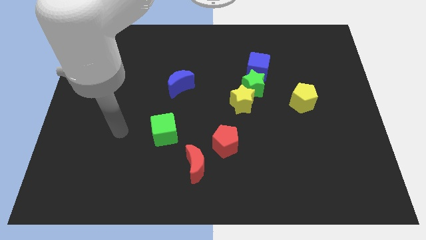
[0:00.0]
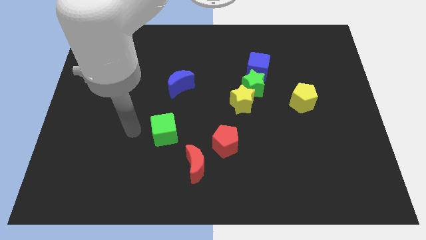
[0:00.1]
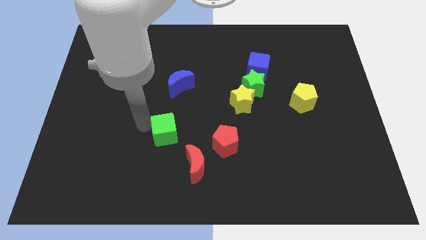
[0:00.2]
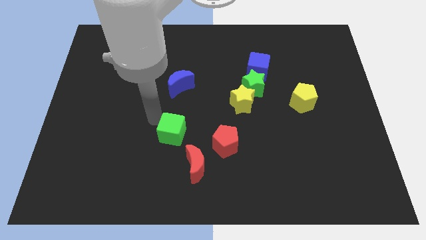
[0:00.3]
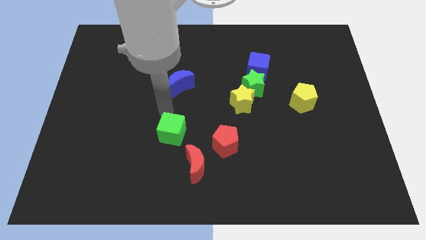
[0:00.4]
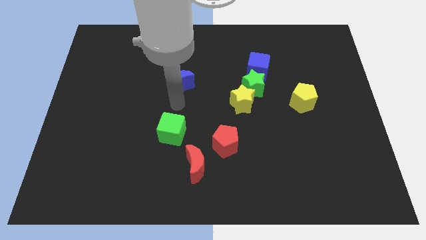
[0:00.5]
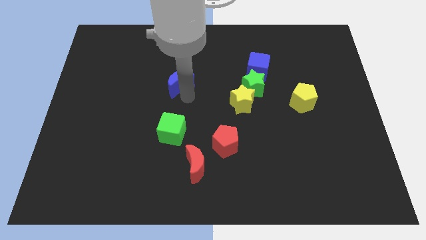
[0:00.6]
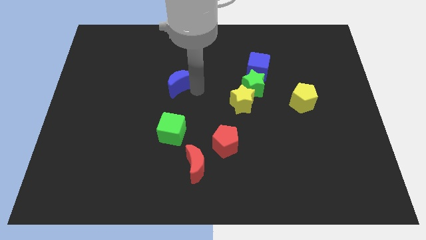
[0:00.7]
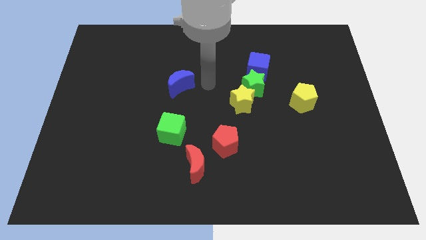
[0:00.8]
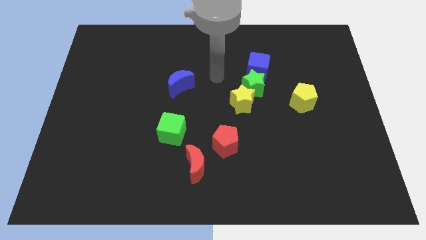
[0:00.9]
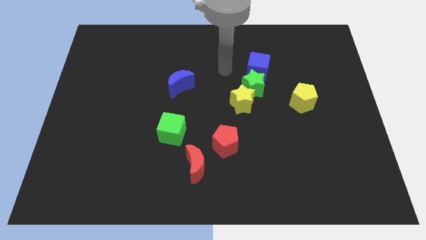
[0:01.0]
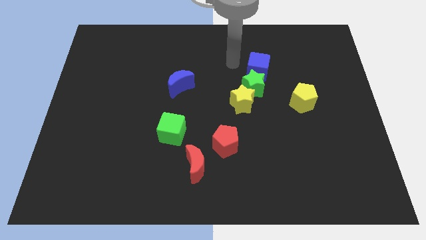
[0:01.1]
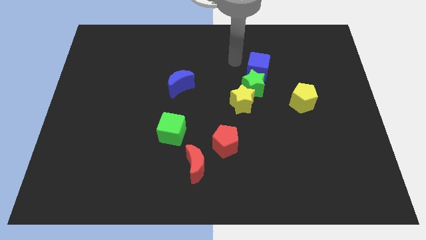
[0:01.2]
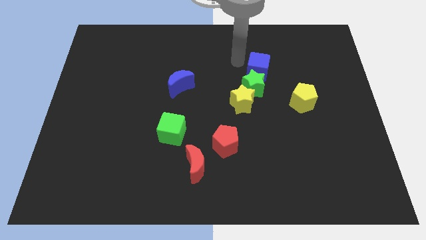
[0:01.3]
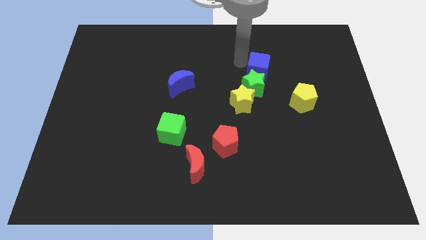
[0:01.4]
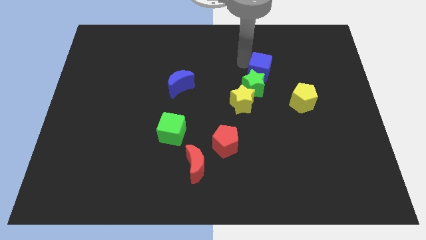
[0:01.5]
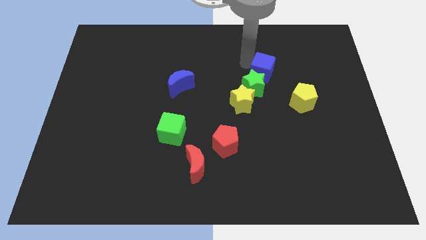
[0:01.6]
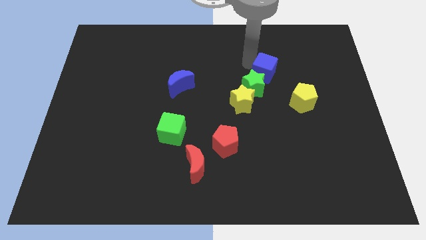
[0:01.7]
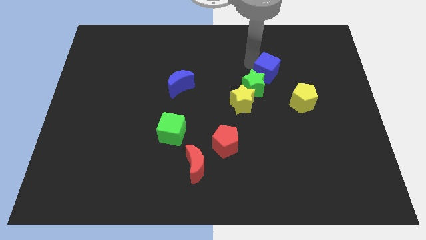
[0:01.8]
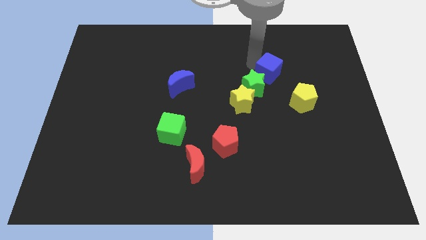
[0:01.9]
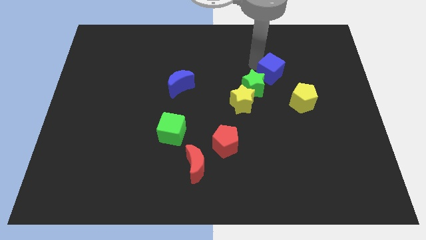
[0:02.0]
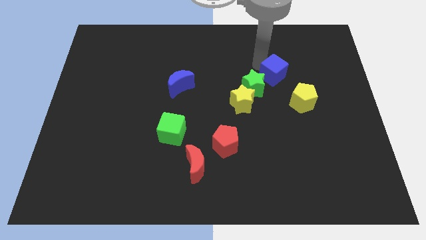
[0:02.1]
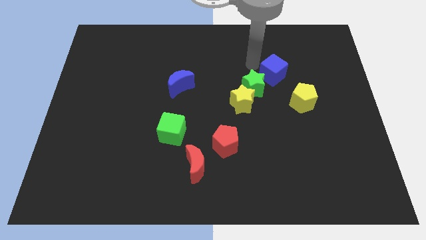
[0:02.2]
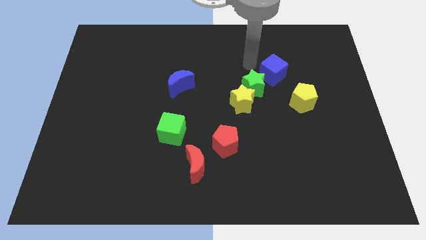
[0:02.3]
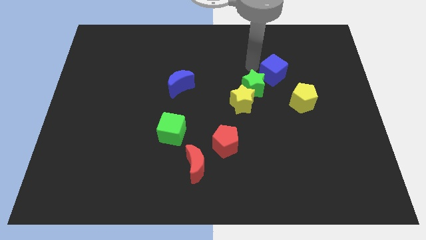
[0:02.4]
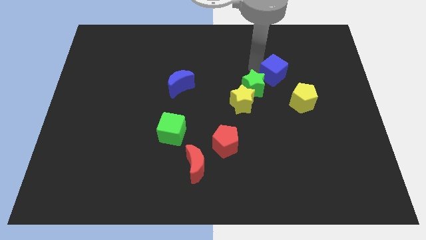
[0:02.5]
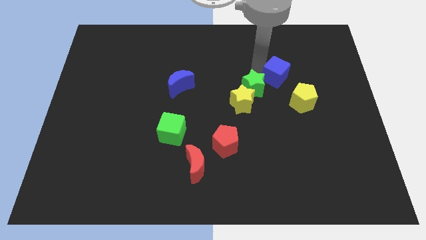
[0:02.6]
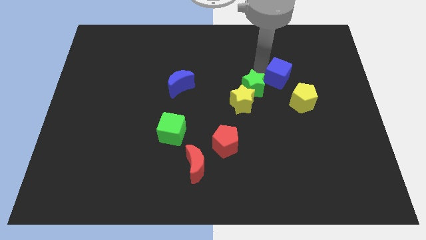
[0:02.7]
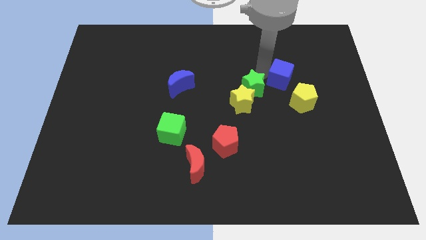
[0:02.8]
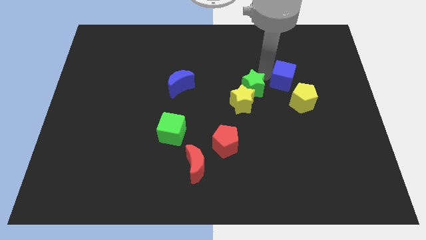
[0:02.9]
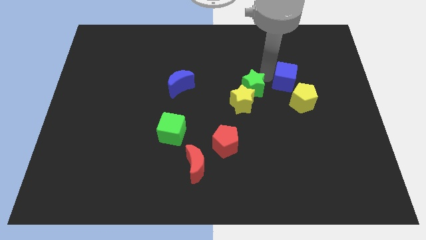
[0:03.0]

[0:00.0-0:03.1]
slightly move the blue cube down and then to the right

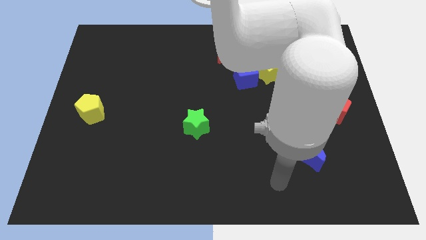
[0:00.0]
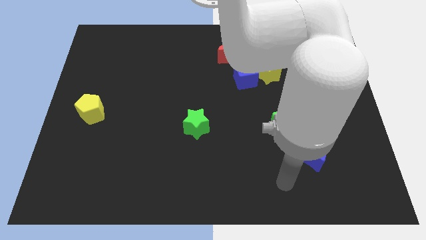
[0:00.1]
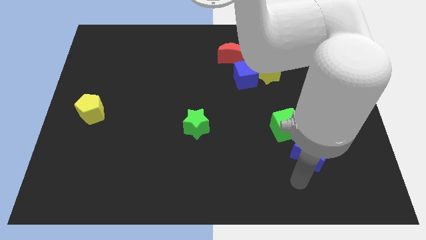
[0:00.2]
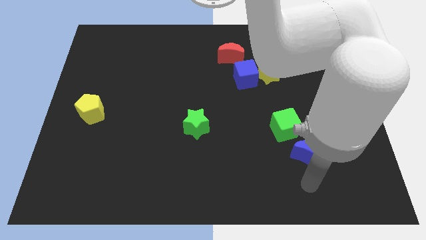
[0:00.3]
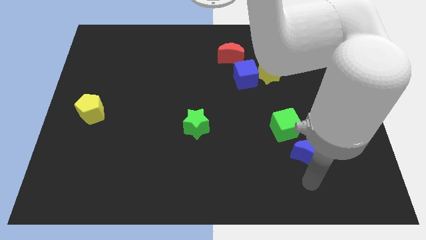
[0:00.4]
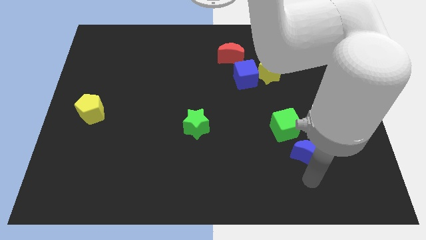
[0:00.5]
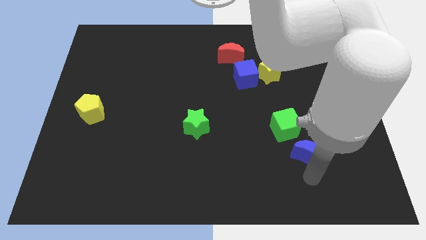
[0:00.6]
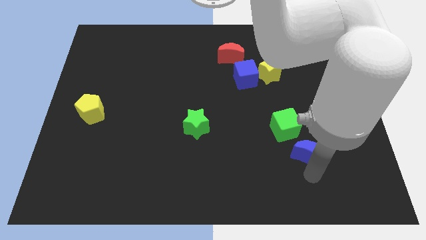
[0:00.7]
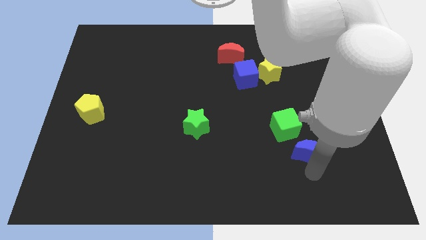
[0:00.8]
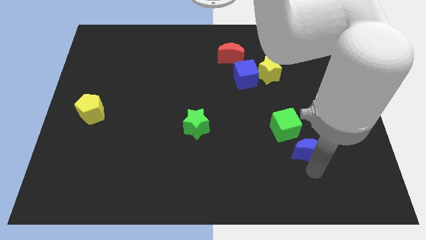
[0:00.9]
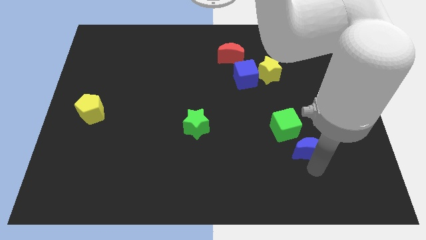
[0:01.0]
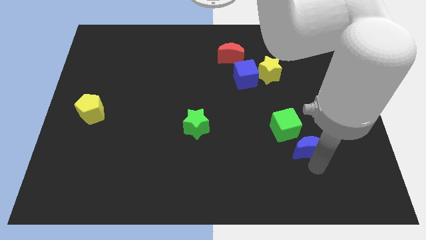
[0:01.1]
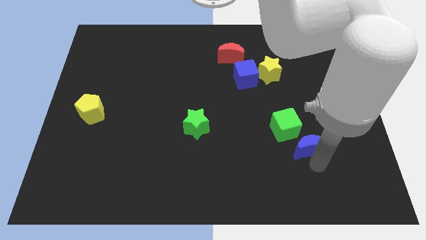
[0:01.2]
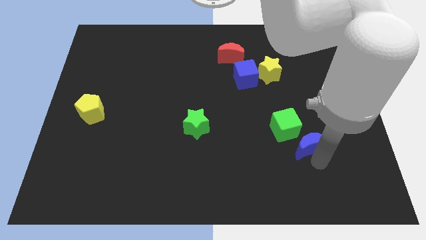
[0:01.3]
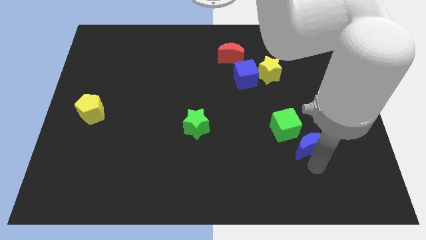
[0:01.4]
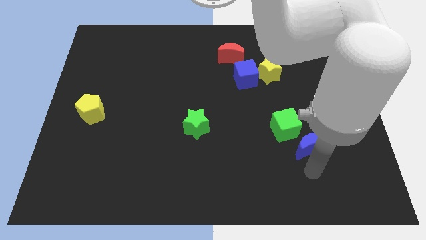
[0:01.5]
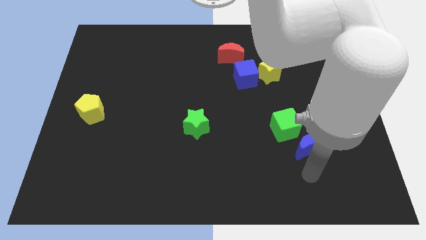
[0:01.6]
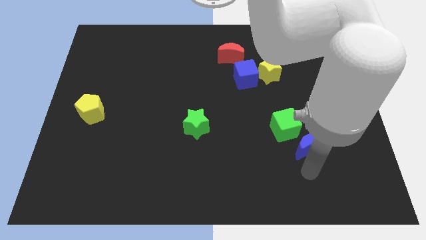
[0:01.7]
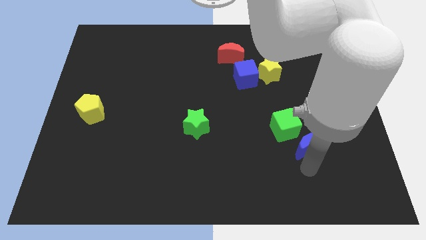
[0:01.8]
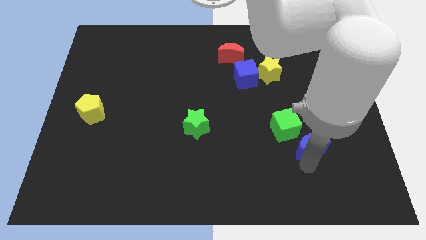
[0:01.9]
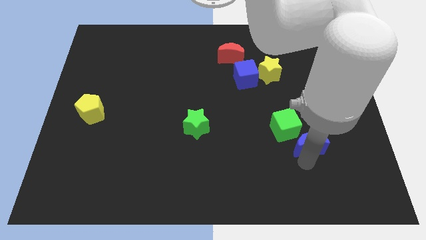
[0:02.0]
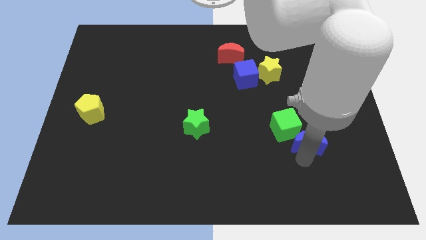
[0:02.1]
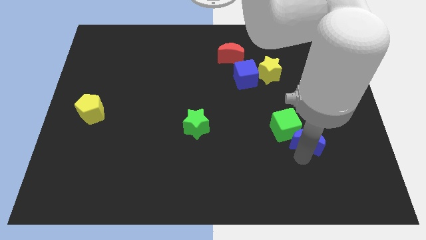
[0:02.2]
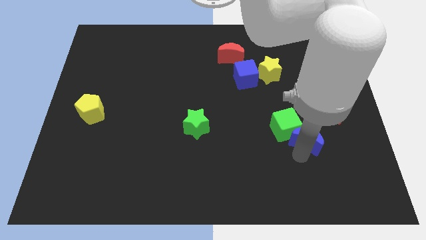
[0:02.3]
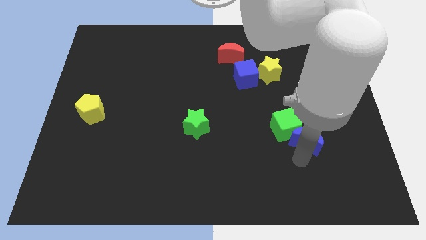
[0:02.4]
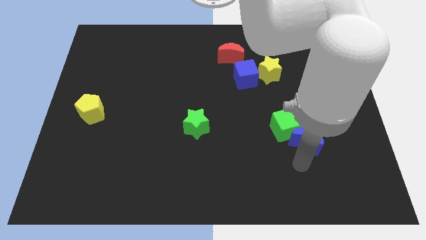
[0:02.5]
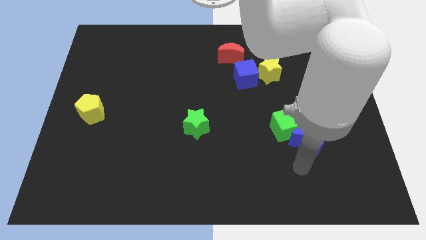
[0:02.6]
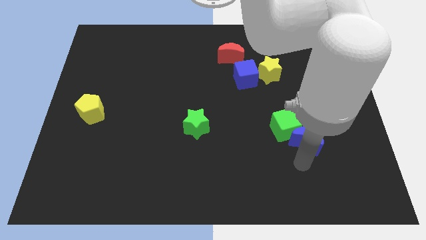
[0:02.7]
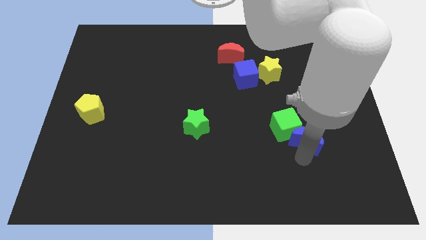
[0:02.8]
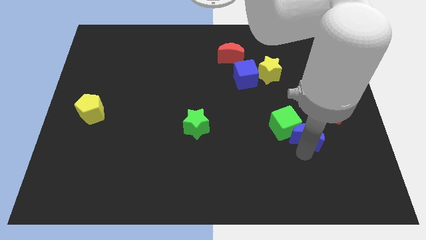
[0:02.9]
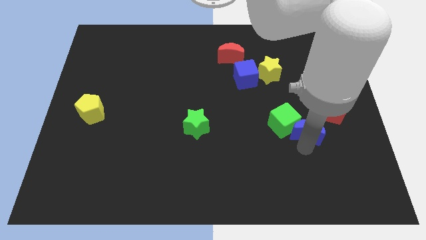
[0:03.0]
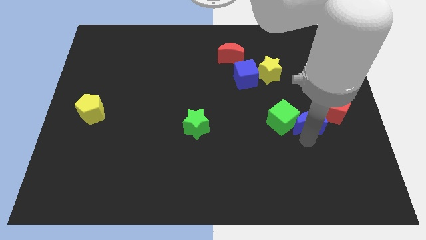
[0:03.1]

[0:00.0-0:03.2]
push the blue moon a little bit upwards

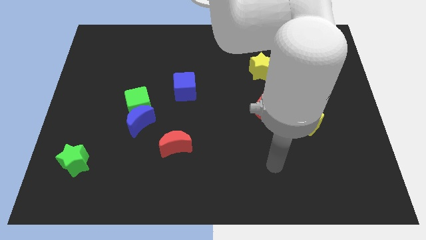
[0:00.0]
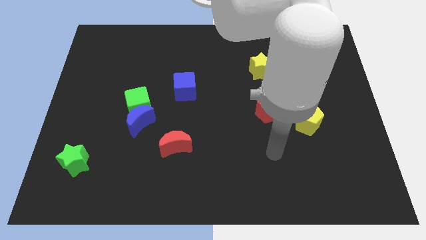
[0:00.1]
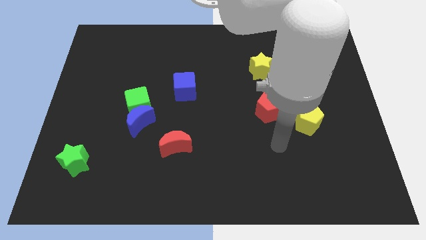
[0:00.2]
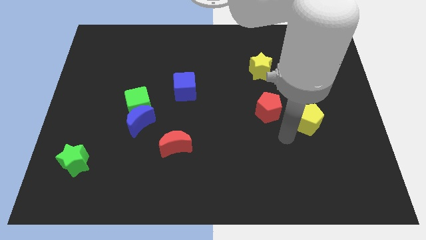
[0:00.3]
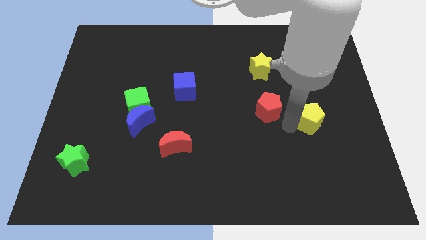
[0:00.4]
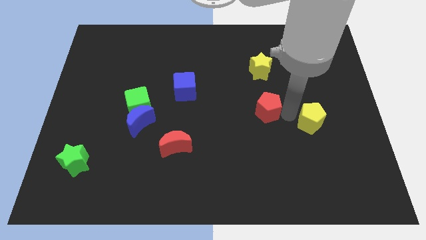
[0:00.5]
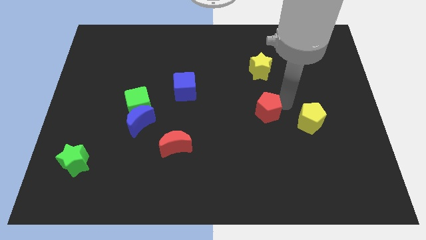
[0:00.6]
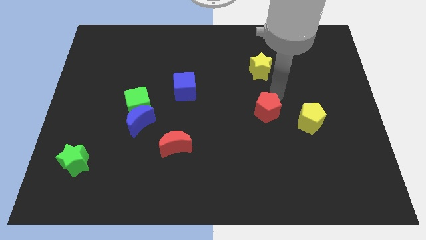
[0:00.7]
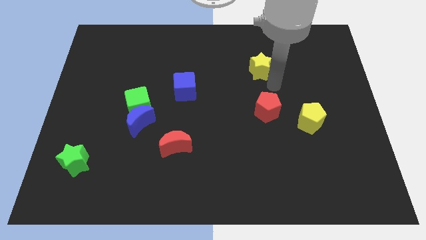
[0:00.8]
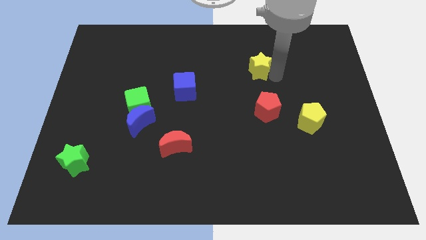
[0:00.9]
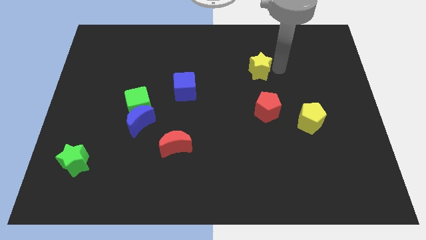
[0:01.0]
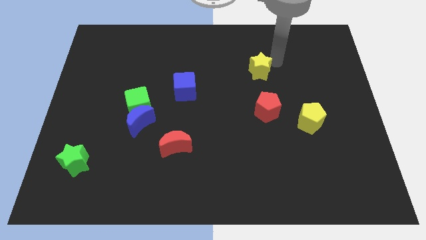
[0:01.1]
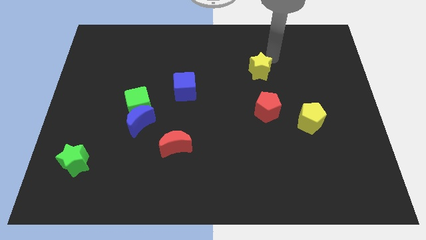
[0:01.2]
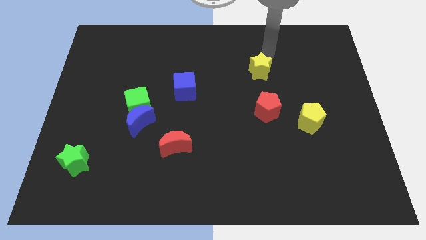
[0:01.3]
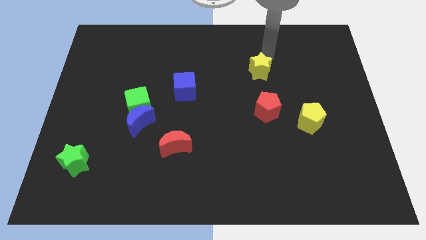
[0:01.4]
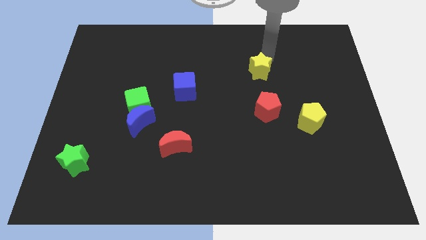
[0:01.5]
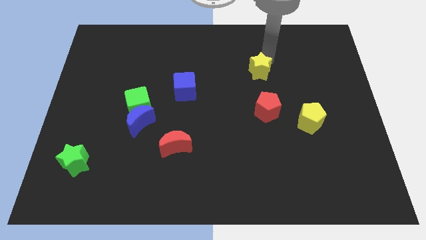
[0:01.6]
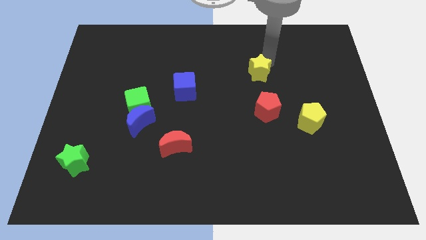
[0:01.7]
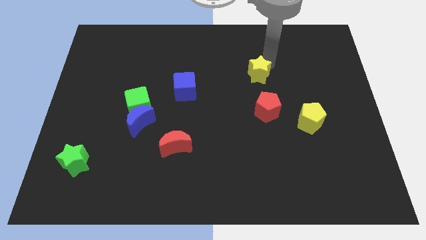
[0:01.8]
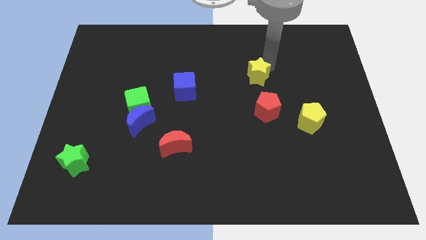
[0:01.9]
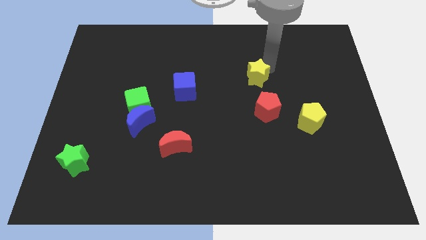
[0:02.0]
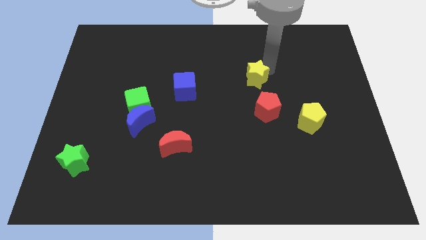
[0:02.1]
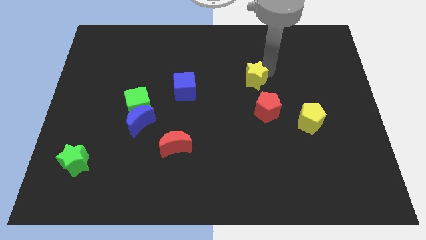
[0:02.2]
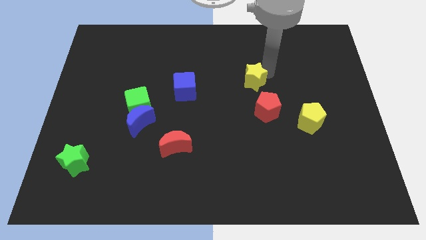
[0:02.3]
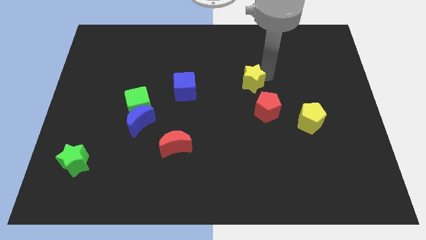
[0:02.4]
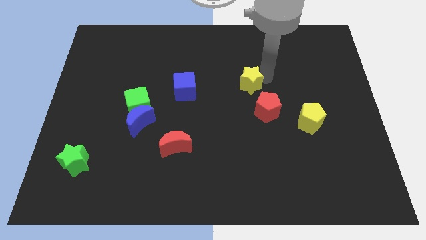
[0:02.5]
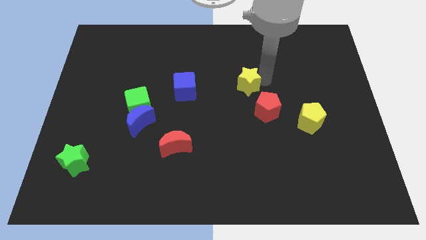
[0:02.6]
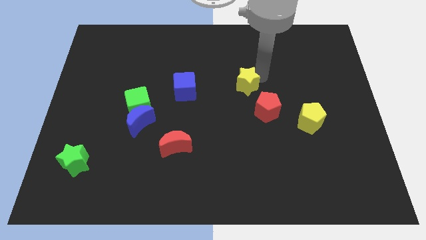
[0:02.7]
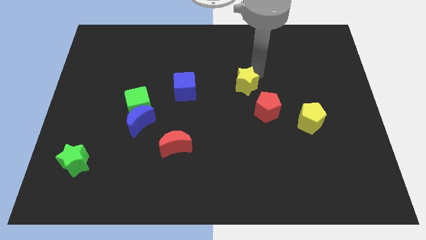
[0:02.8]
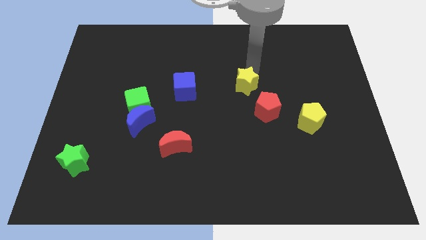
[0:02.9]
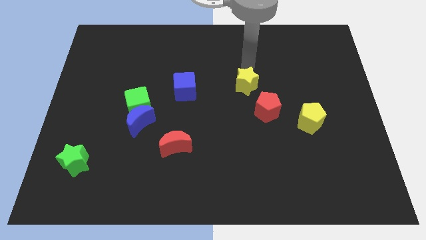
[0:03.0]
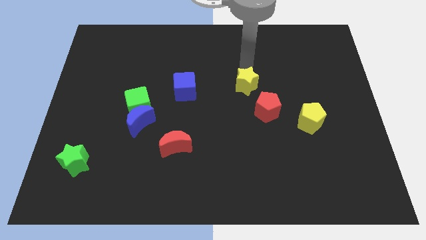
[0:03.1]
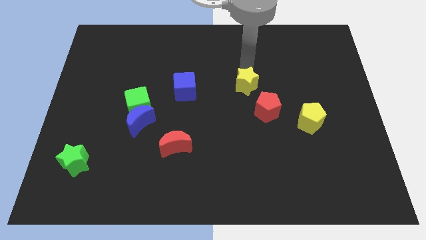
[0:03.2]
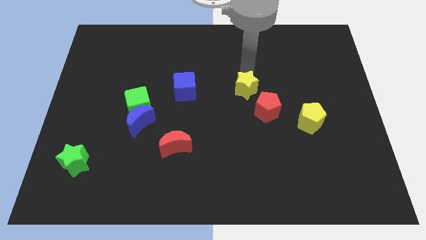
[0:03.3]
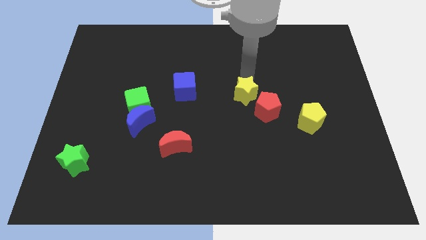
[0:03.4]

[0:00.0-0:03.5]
slightly push the yellow star downwards
